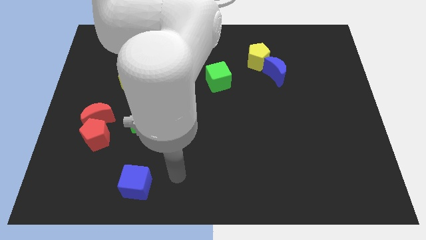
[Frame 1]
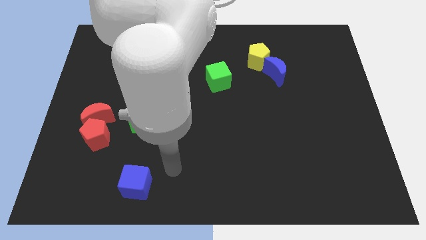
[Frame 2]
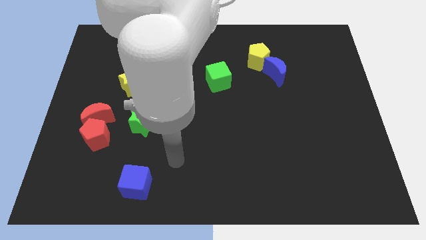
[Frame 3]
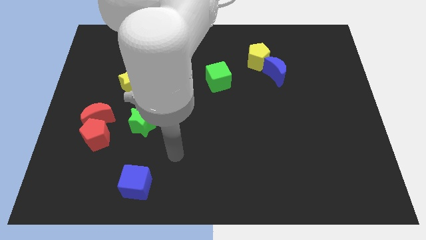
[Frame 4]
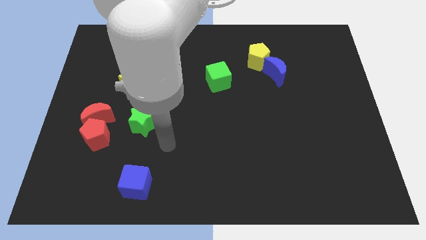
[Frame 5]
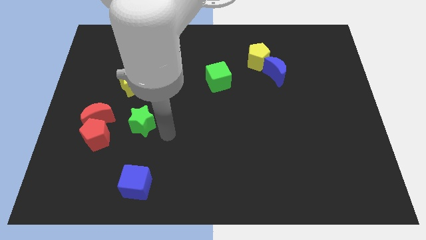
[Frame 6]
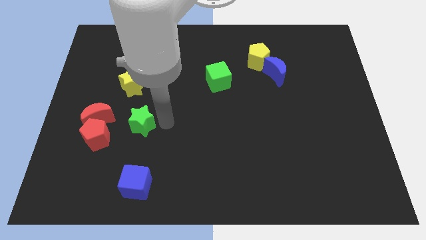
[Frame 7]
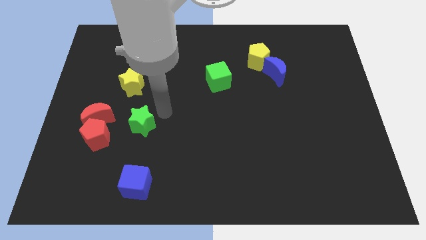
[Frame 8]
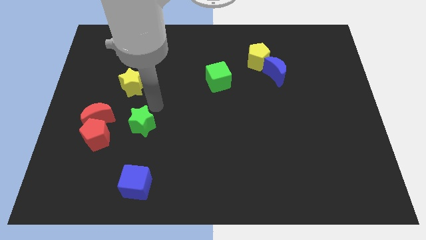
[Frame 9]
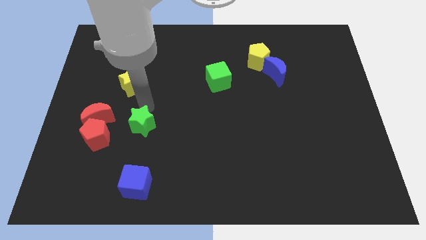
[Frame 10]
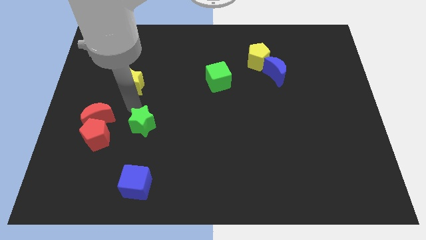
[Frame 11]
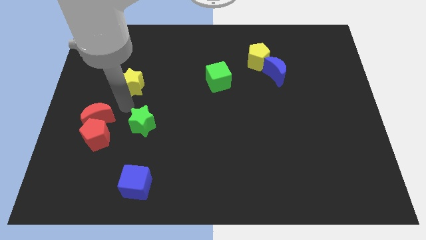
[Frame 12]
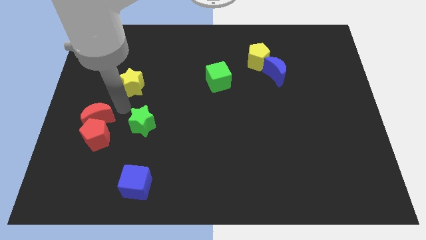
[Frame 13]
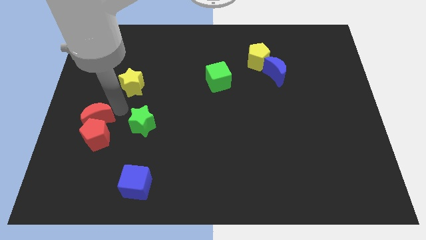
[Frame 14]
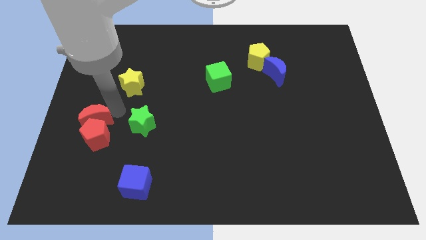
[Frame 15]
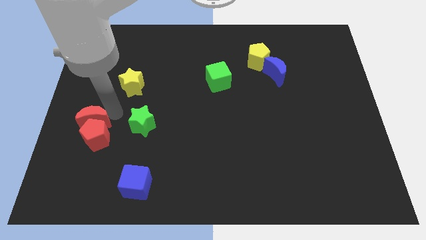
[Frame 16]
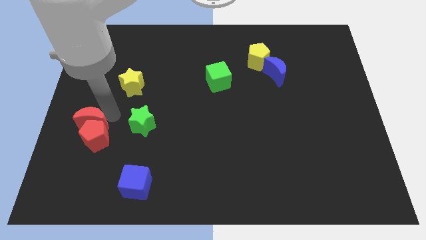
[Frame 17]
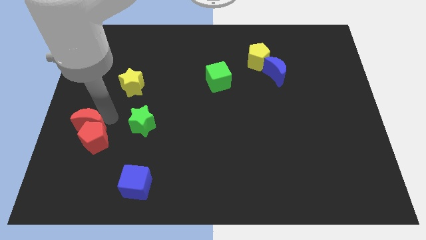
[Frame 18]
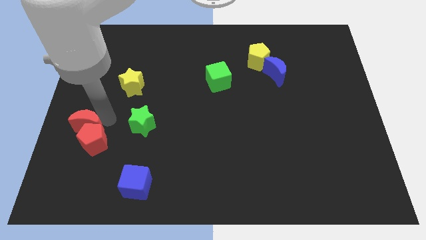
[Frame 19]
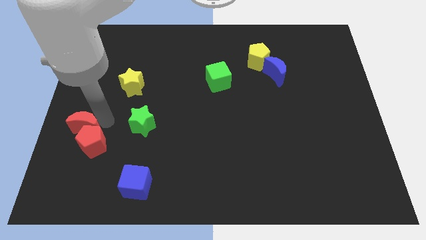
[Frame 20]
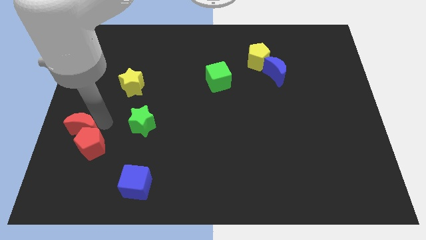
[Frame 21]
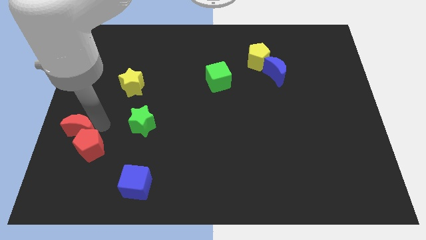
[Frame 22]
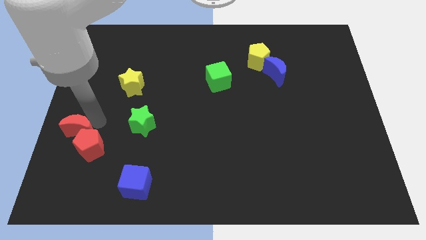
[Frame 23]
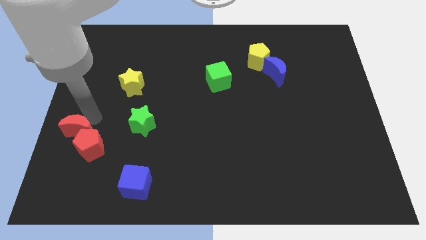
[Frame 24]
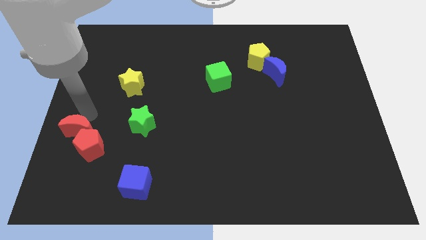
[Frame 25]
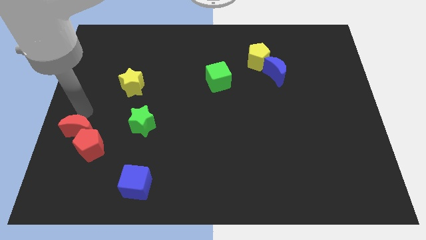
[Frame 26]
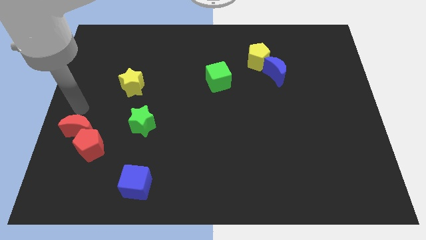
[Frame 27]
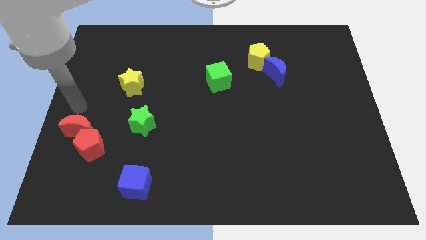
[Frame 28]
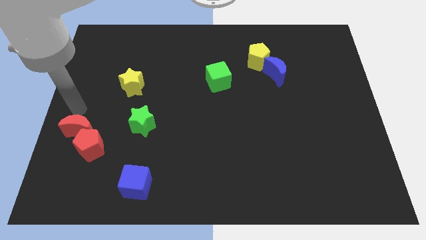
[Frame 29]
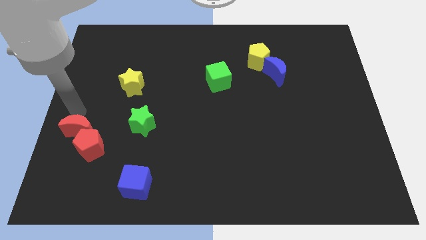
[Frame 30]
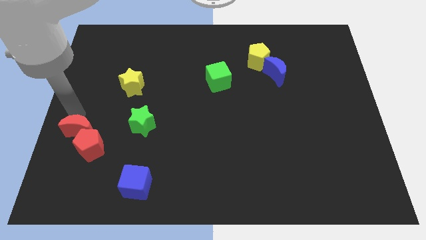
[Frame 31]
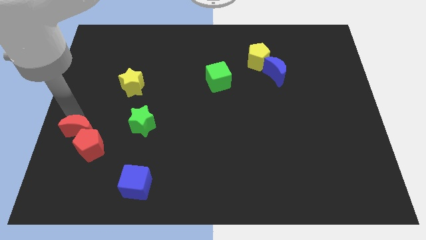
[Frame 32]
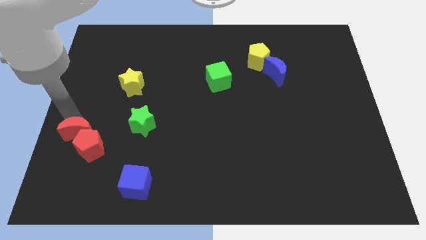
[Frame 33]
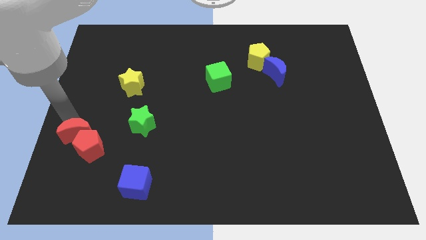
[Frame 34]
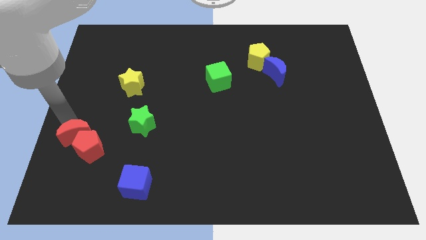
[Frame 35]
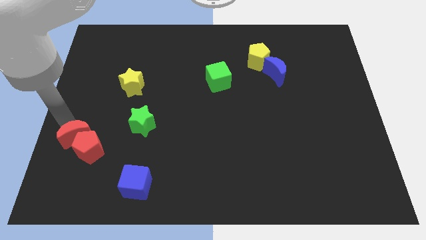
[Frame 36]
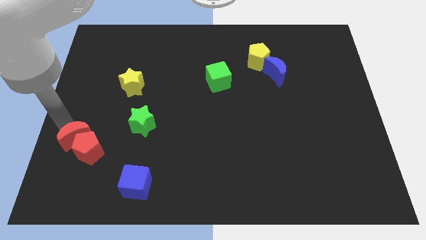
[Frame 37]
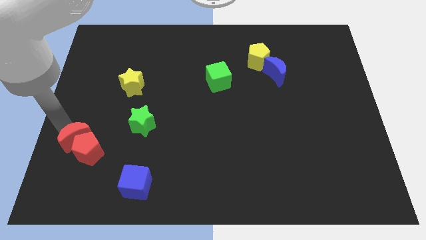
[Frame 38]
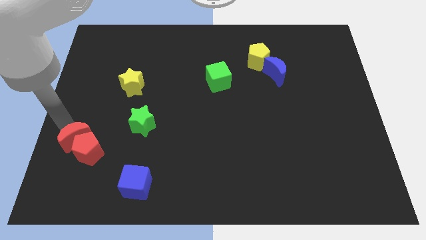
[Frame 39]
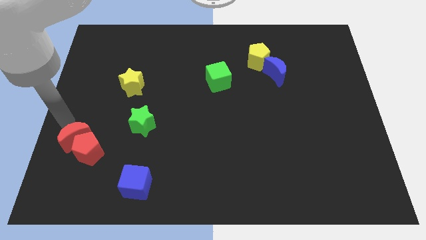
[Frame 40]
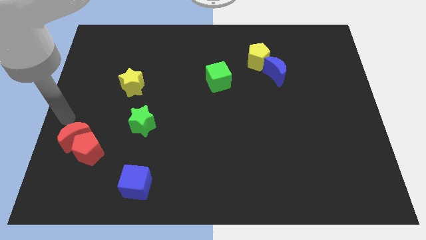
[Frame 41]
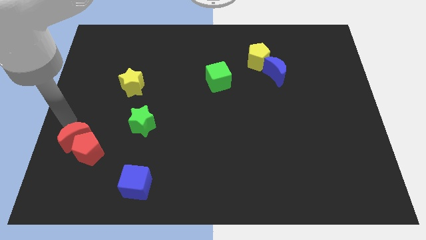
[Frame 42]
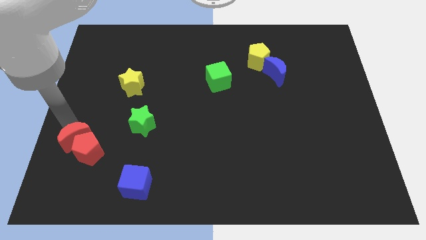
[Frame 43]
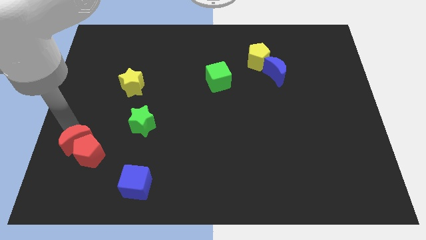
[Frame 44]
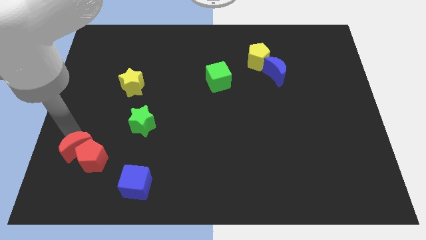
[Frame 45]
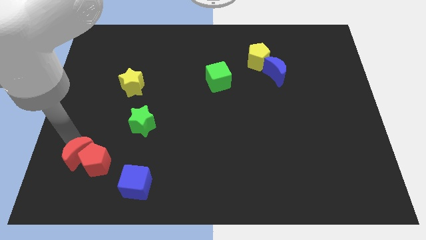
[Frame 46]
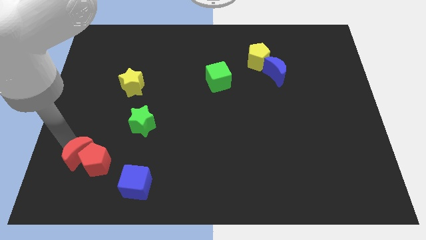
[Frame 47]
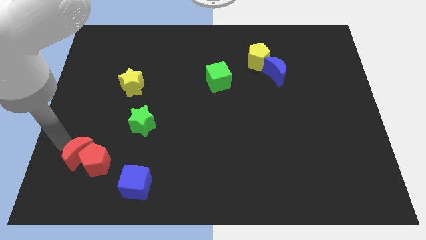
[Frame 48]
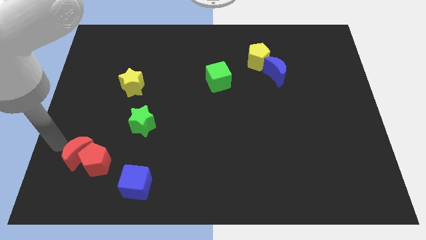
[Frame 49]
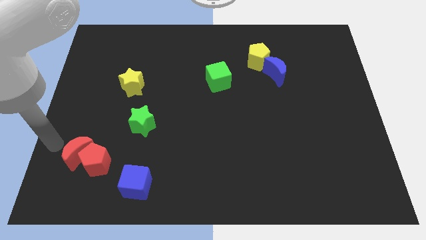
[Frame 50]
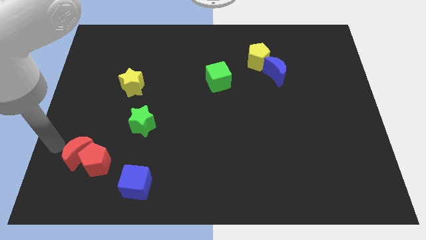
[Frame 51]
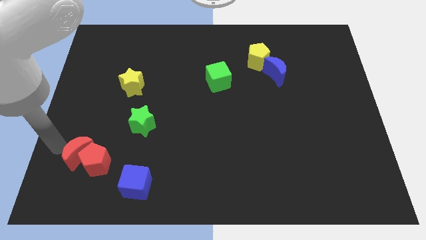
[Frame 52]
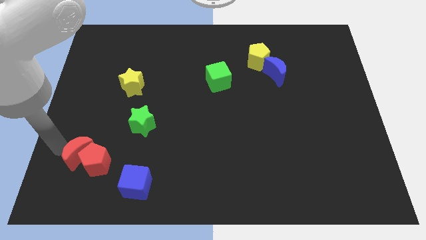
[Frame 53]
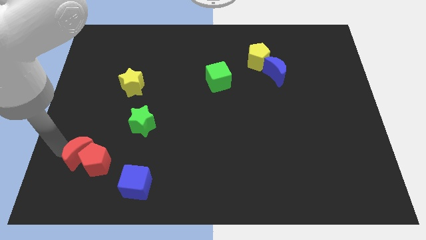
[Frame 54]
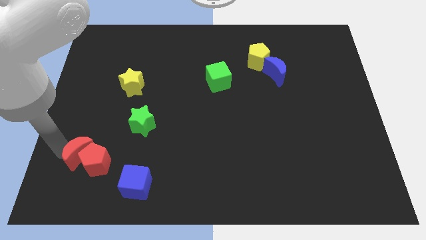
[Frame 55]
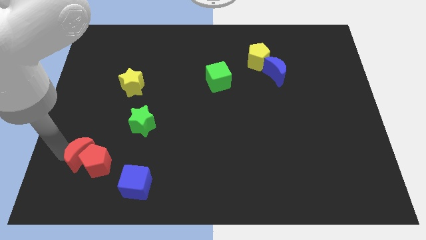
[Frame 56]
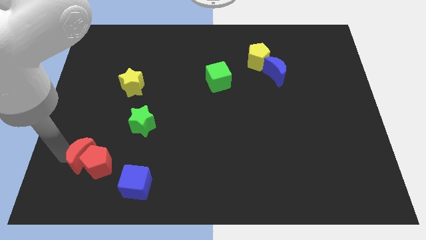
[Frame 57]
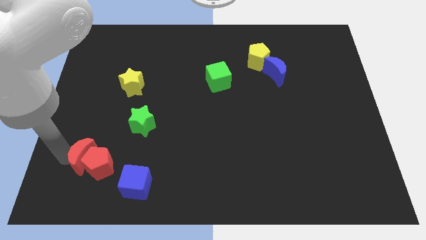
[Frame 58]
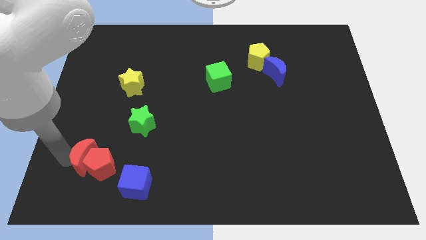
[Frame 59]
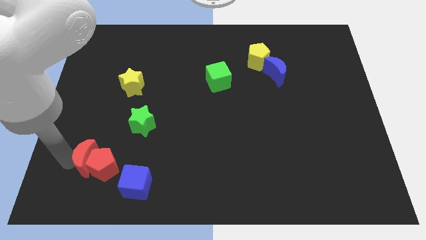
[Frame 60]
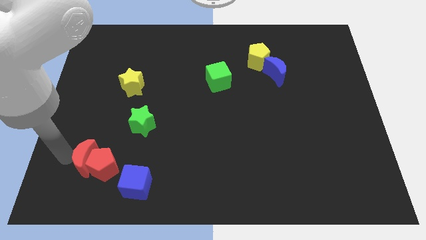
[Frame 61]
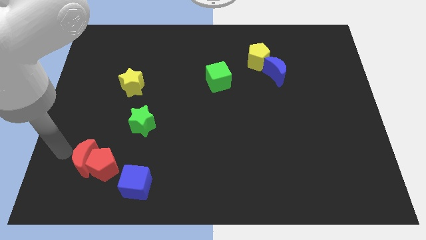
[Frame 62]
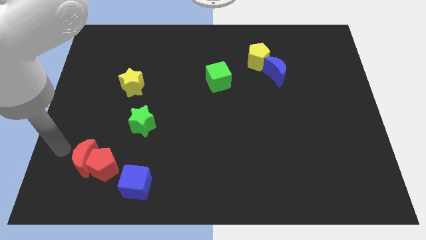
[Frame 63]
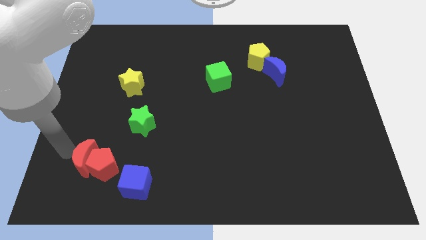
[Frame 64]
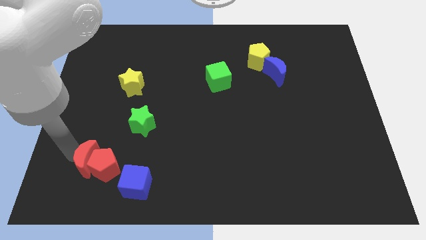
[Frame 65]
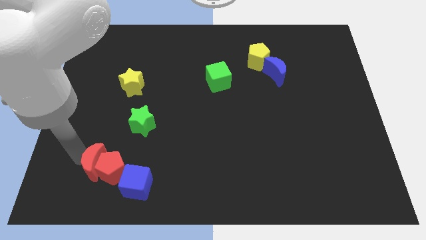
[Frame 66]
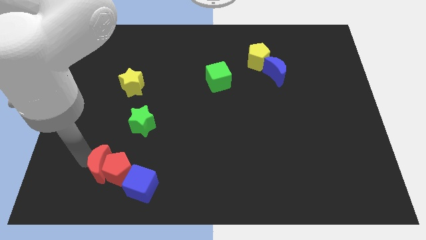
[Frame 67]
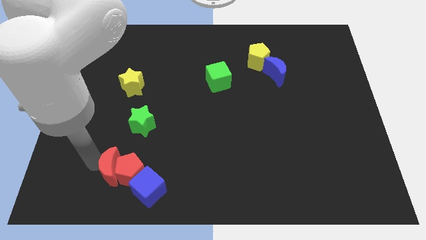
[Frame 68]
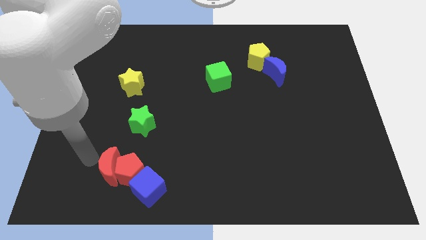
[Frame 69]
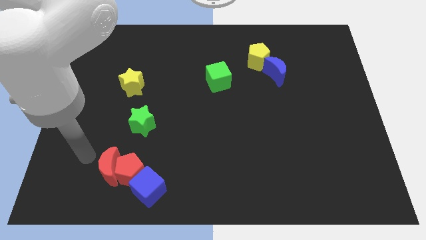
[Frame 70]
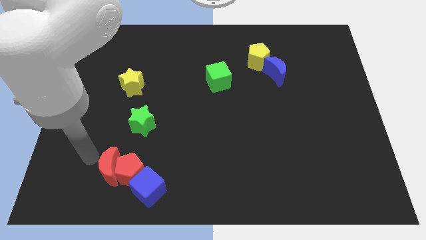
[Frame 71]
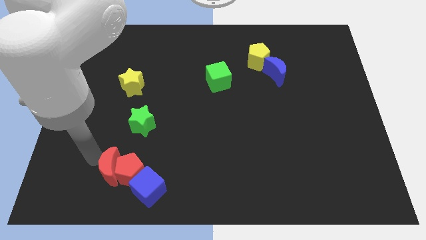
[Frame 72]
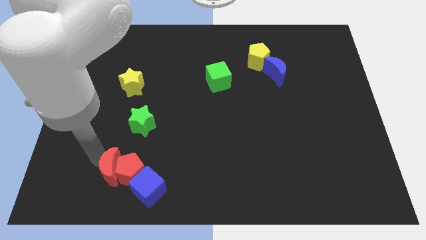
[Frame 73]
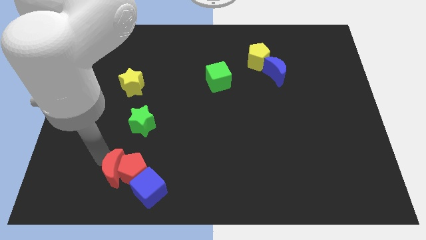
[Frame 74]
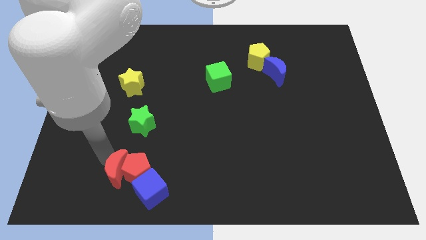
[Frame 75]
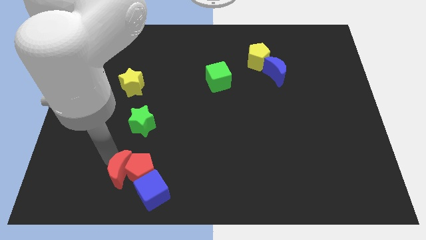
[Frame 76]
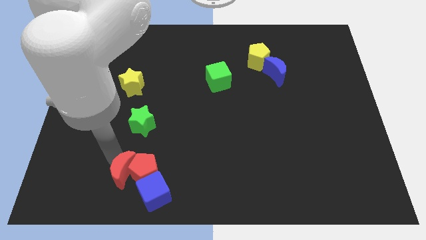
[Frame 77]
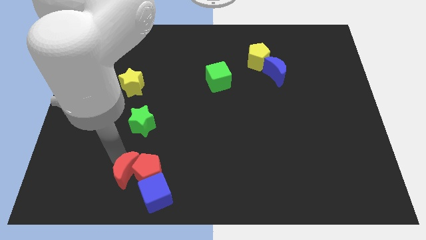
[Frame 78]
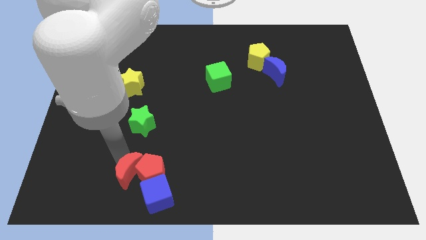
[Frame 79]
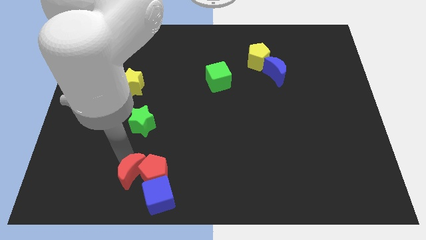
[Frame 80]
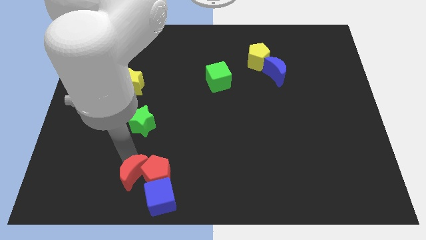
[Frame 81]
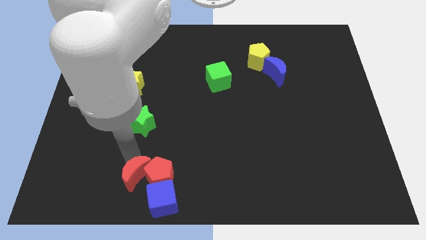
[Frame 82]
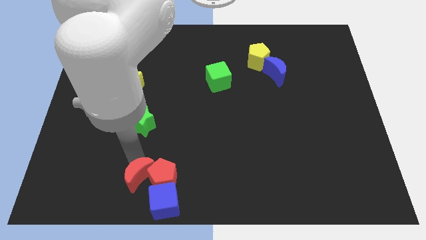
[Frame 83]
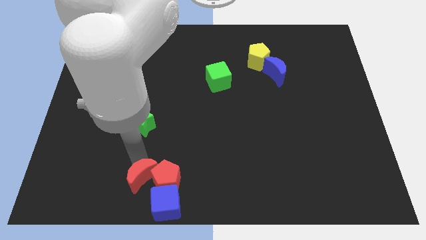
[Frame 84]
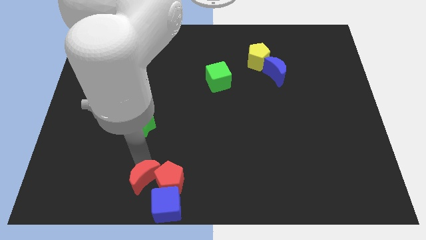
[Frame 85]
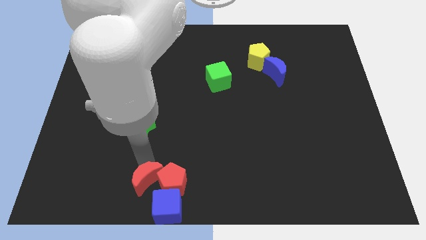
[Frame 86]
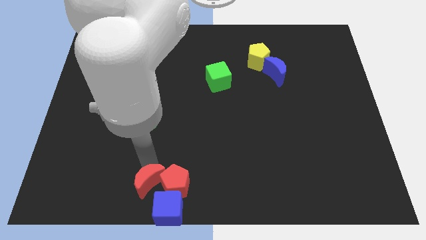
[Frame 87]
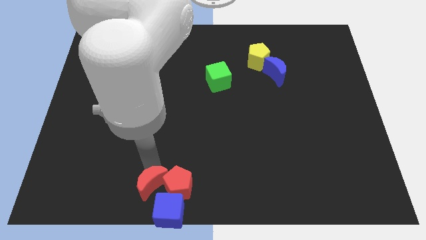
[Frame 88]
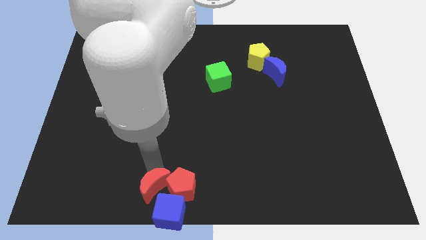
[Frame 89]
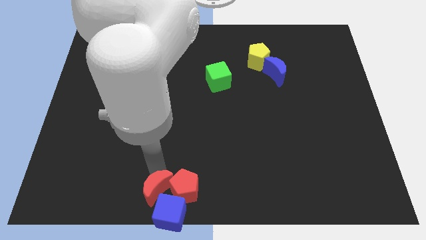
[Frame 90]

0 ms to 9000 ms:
move the red moon close to the blue cube
